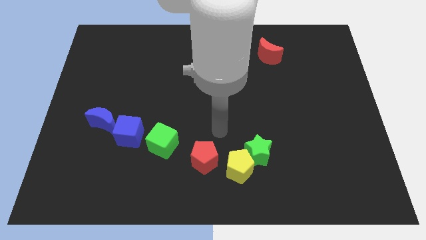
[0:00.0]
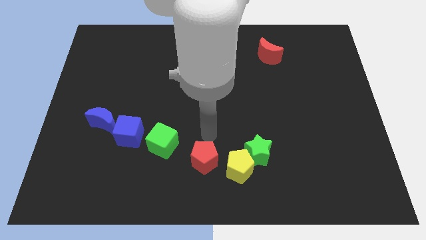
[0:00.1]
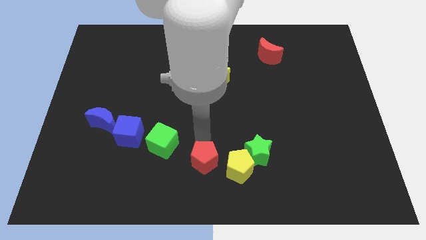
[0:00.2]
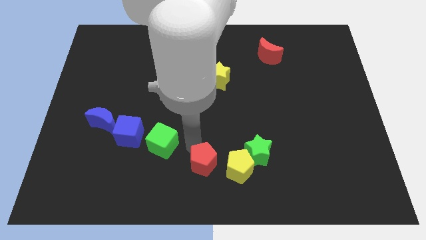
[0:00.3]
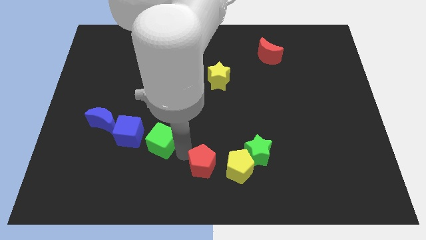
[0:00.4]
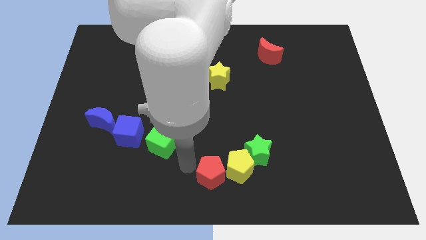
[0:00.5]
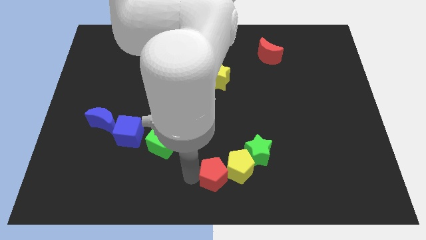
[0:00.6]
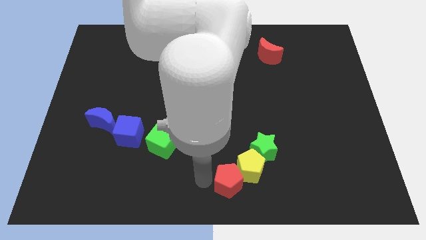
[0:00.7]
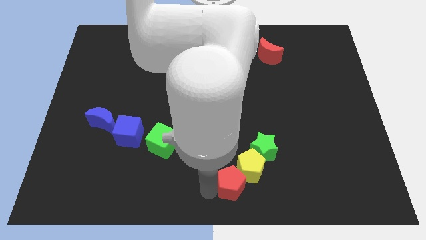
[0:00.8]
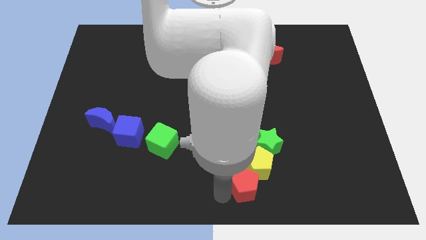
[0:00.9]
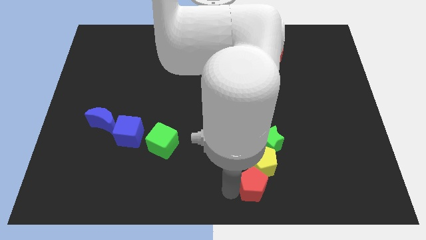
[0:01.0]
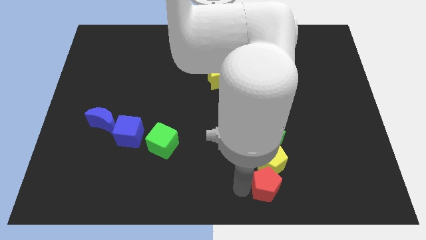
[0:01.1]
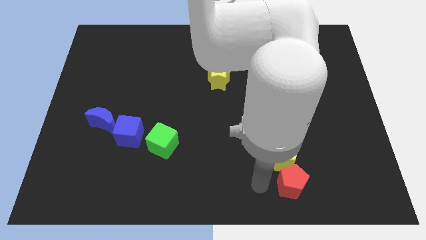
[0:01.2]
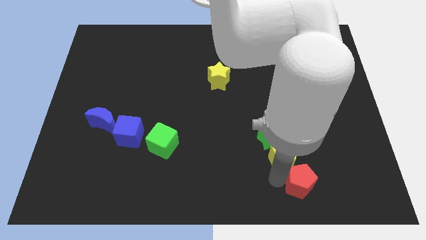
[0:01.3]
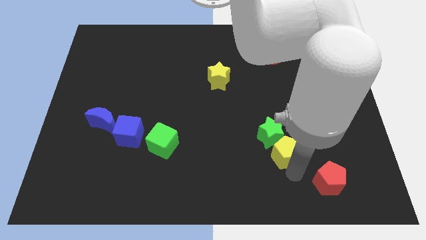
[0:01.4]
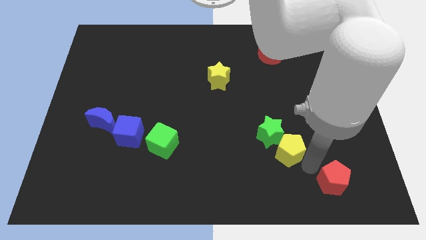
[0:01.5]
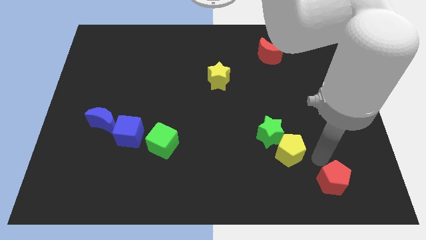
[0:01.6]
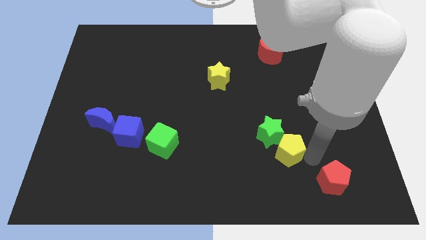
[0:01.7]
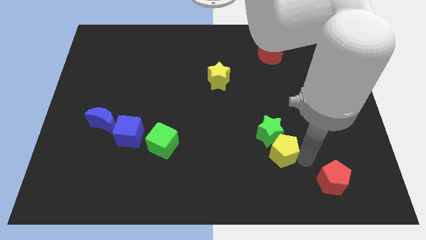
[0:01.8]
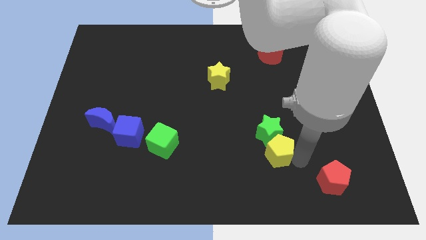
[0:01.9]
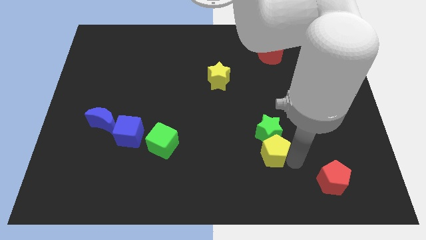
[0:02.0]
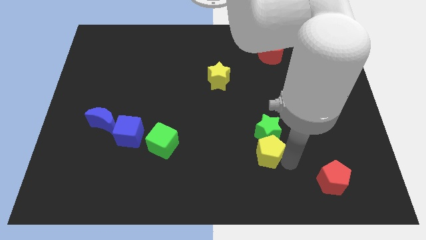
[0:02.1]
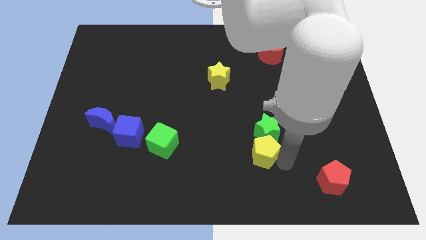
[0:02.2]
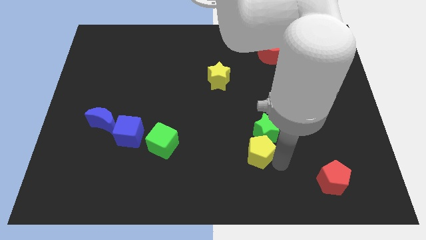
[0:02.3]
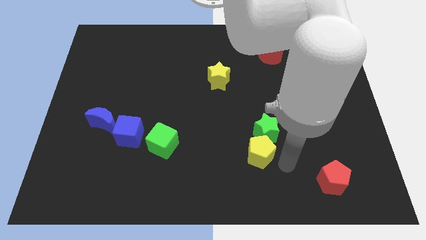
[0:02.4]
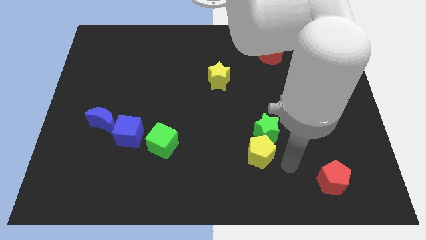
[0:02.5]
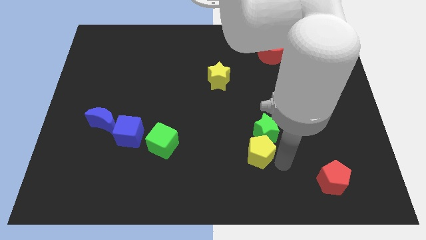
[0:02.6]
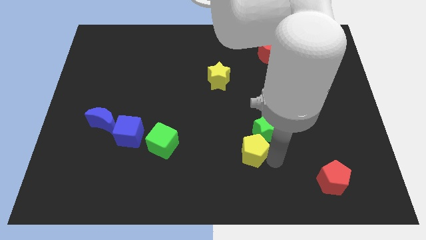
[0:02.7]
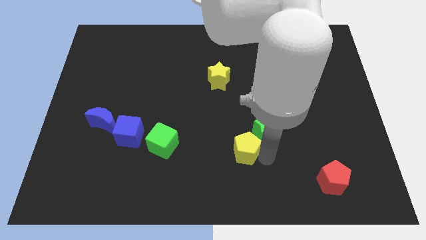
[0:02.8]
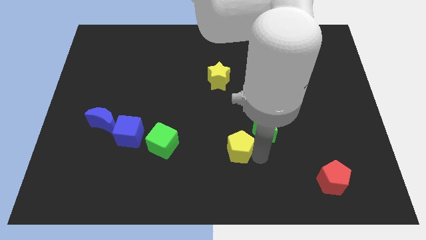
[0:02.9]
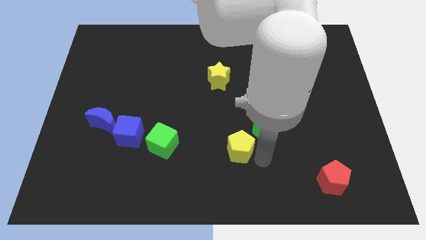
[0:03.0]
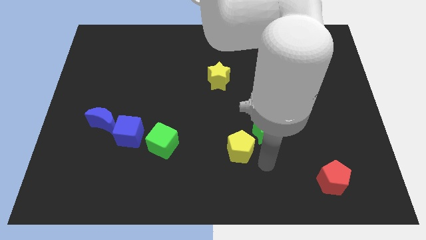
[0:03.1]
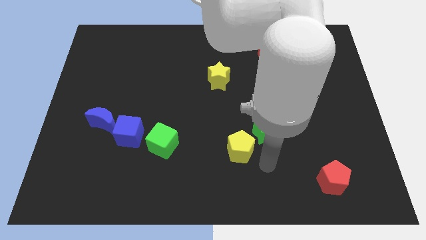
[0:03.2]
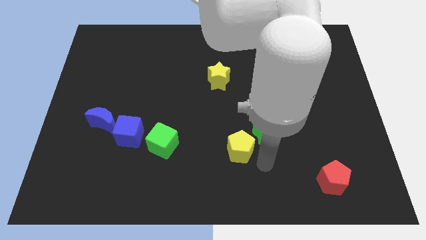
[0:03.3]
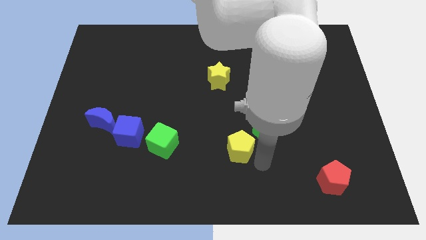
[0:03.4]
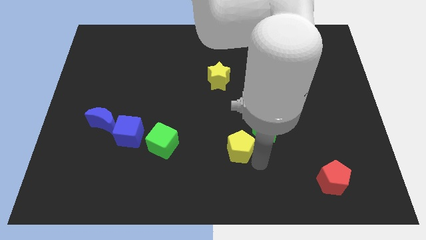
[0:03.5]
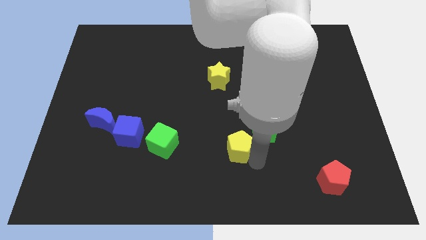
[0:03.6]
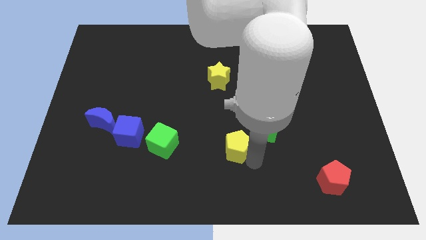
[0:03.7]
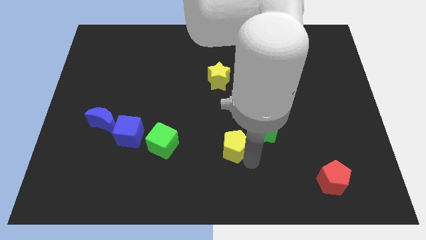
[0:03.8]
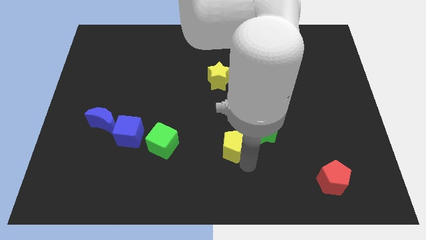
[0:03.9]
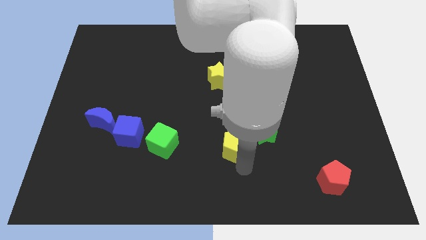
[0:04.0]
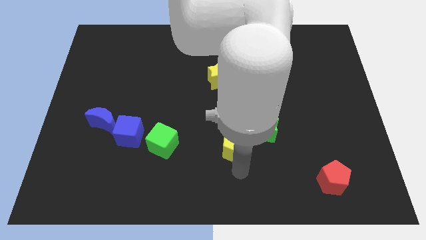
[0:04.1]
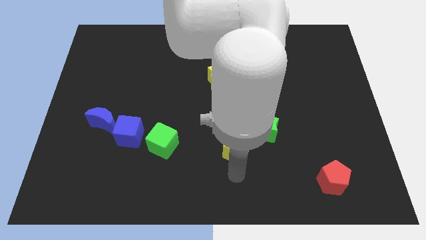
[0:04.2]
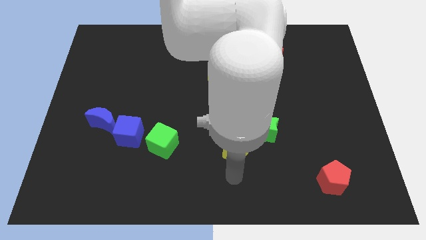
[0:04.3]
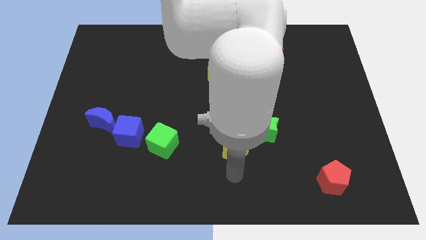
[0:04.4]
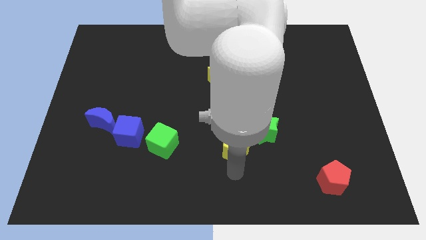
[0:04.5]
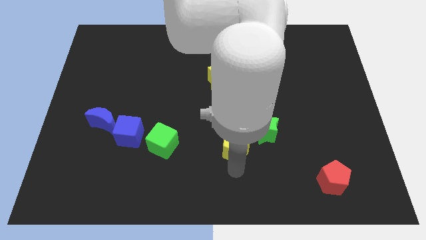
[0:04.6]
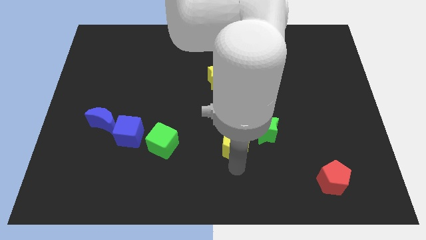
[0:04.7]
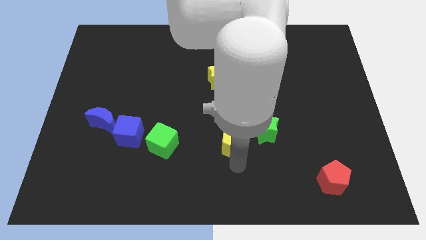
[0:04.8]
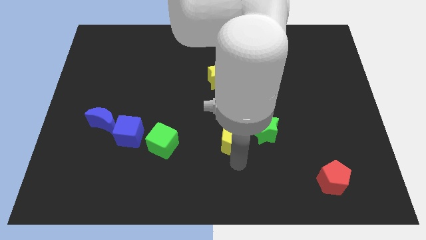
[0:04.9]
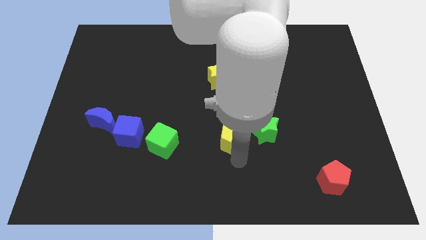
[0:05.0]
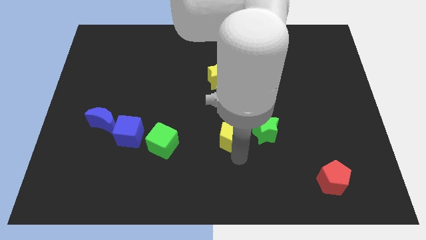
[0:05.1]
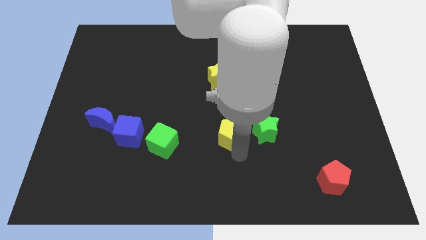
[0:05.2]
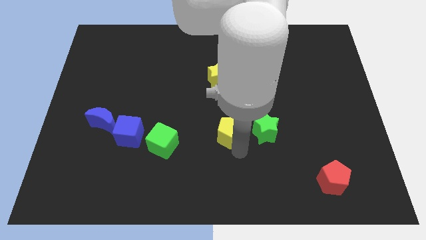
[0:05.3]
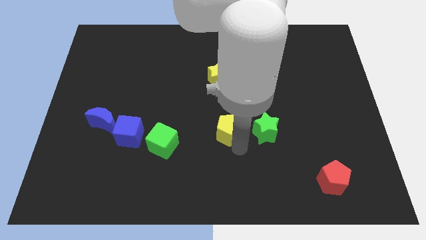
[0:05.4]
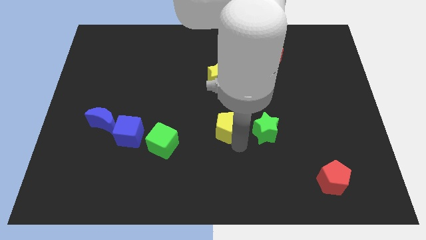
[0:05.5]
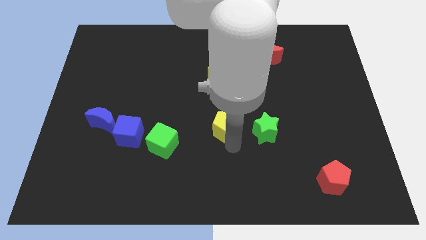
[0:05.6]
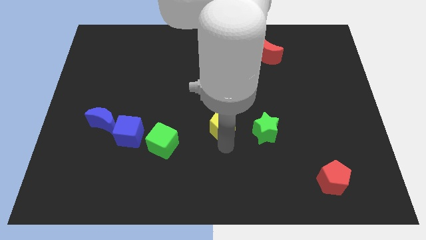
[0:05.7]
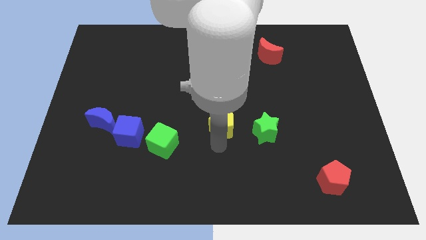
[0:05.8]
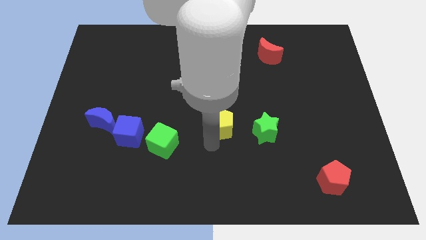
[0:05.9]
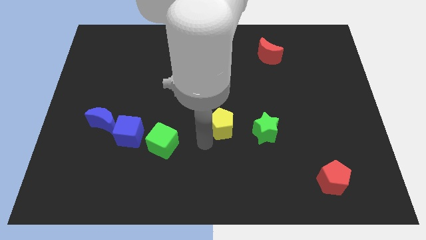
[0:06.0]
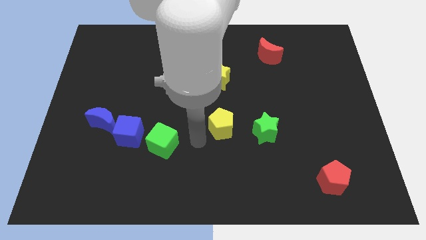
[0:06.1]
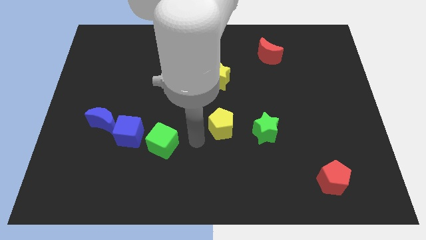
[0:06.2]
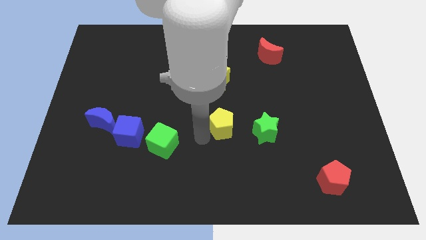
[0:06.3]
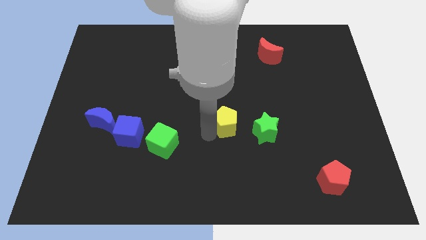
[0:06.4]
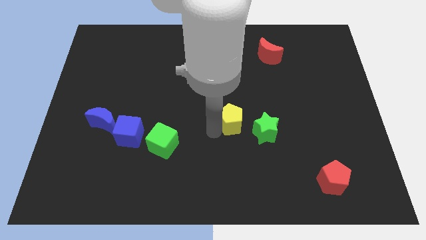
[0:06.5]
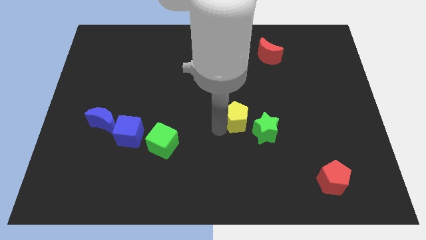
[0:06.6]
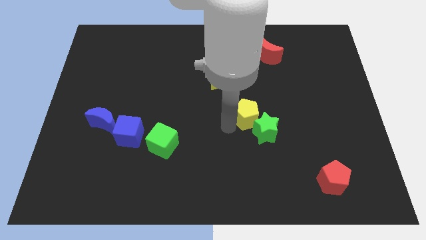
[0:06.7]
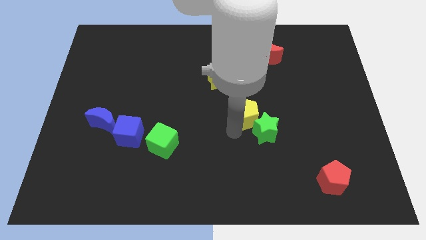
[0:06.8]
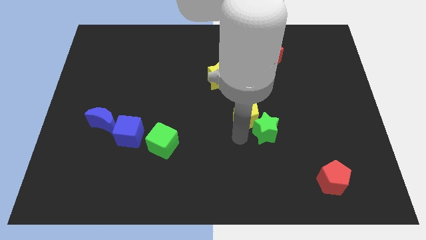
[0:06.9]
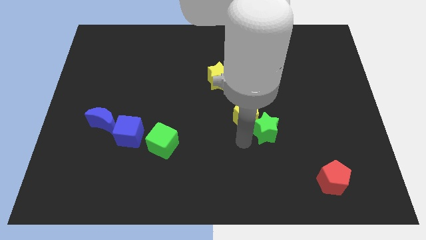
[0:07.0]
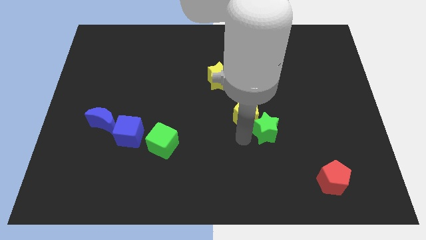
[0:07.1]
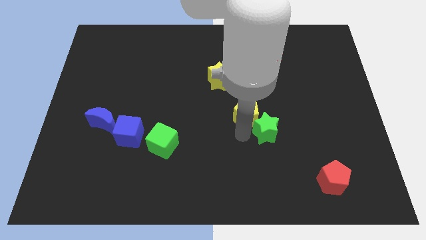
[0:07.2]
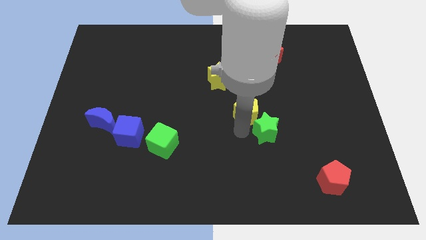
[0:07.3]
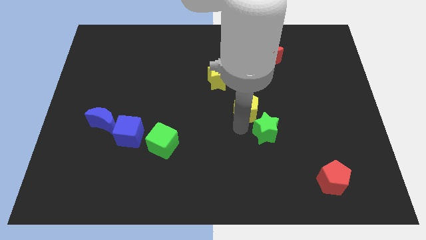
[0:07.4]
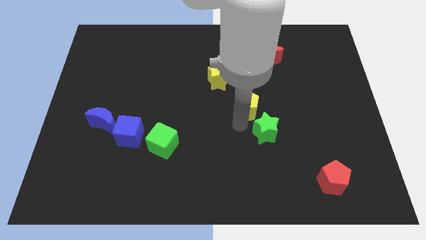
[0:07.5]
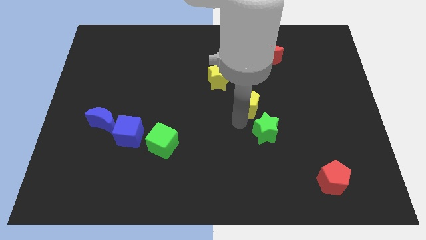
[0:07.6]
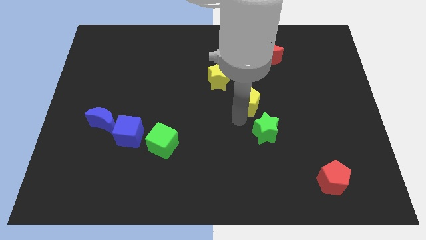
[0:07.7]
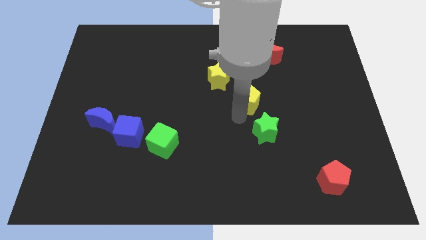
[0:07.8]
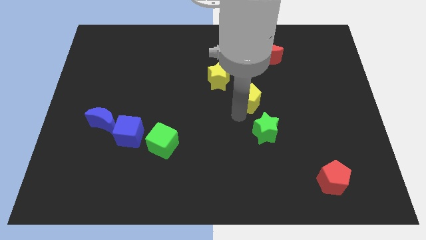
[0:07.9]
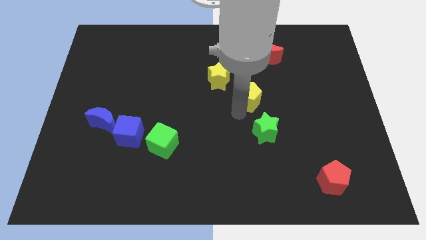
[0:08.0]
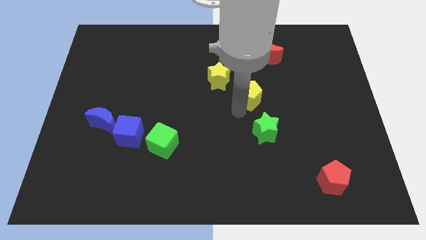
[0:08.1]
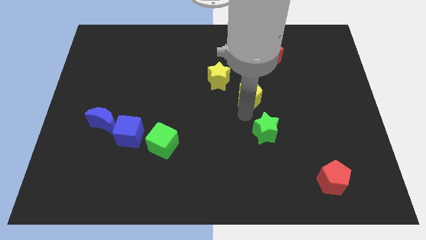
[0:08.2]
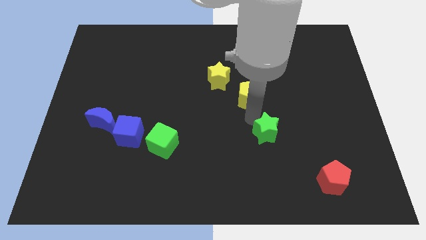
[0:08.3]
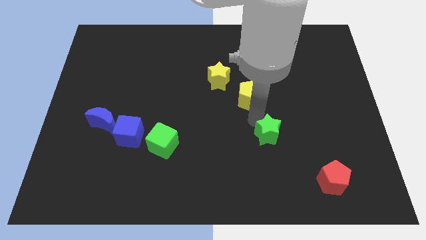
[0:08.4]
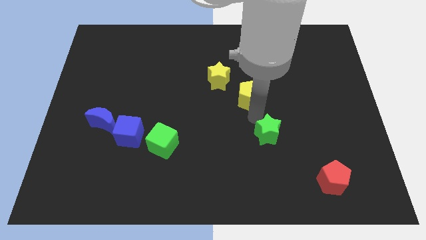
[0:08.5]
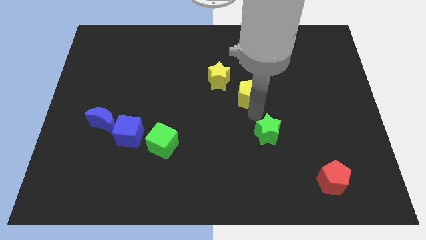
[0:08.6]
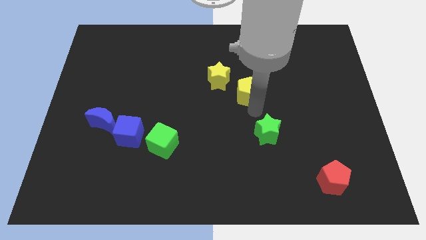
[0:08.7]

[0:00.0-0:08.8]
push the yellow pentagon upwards
